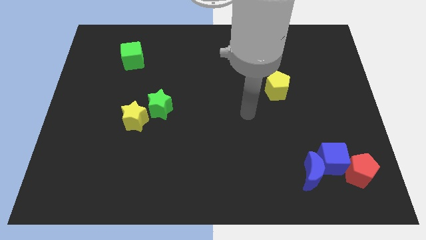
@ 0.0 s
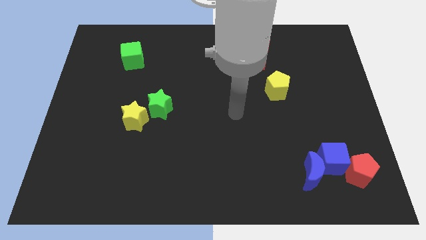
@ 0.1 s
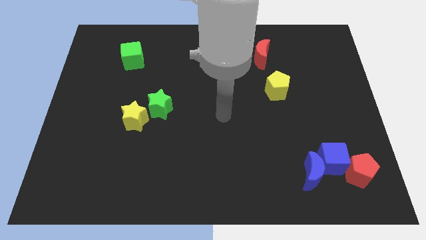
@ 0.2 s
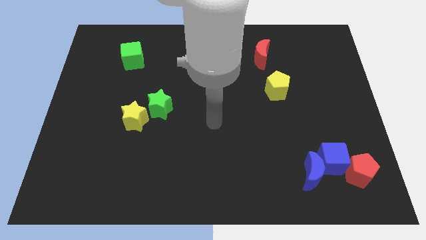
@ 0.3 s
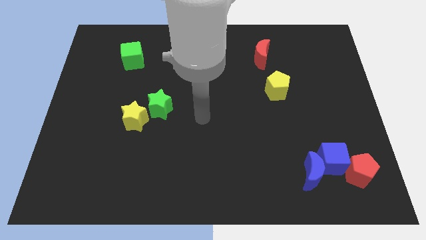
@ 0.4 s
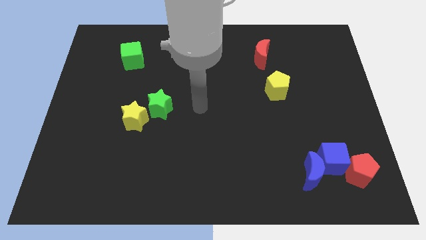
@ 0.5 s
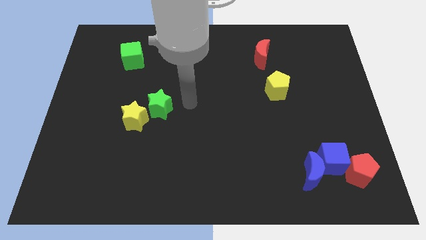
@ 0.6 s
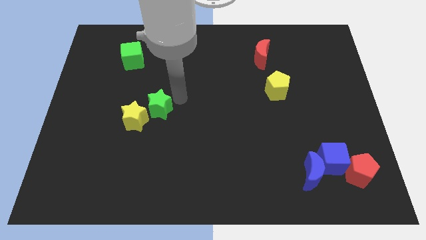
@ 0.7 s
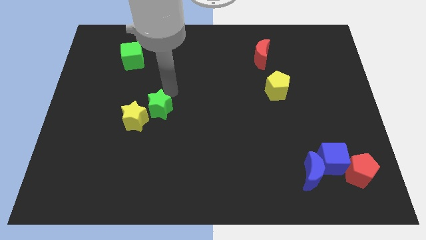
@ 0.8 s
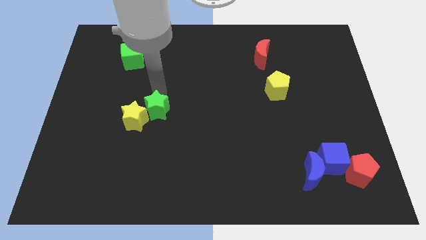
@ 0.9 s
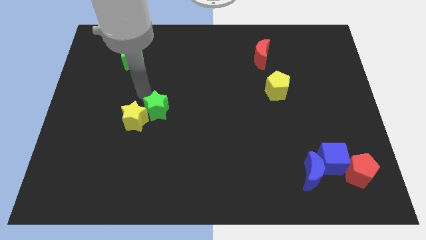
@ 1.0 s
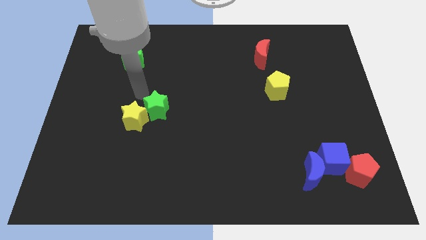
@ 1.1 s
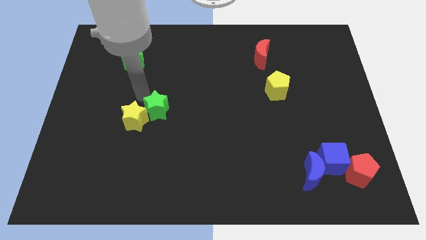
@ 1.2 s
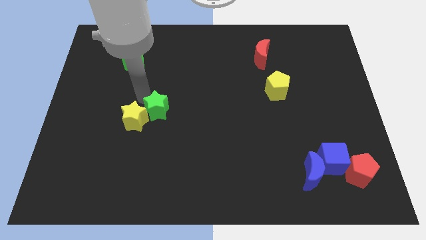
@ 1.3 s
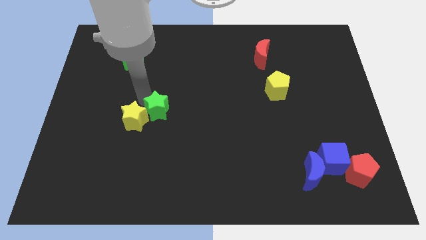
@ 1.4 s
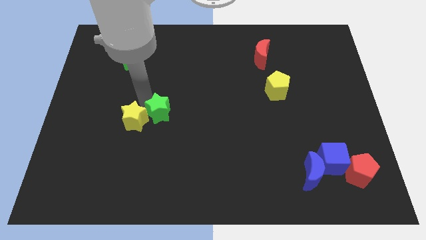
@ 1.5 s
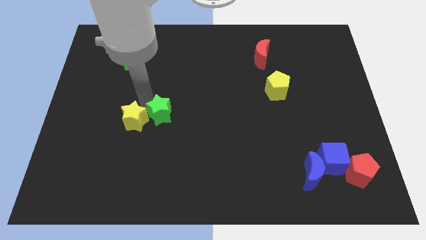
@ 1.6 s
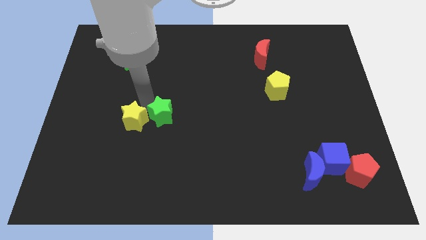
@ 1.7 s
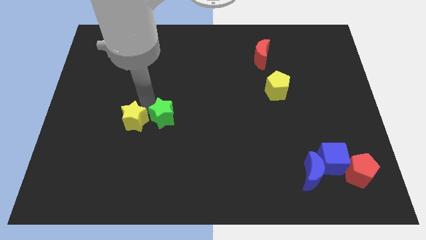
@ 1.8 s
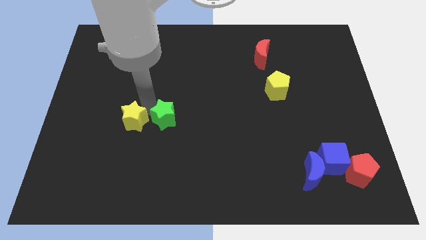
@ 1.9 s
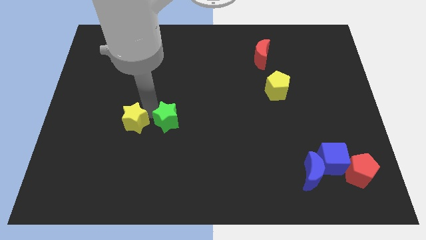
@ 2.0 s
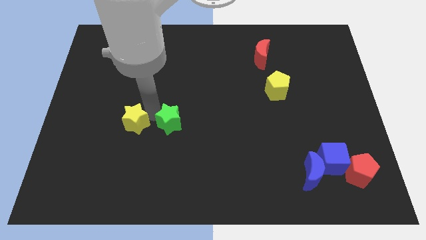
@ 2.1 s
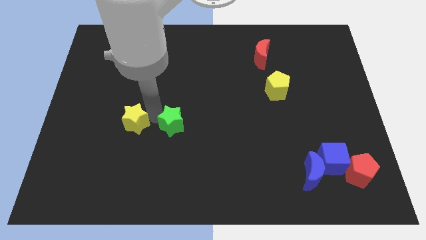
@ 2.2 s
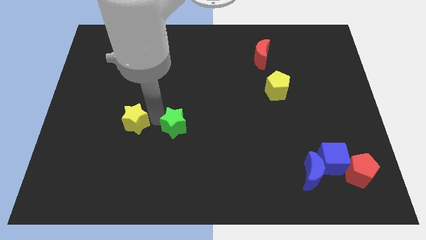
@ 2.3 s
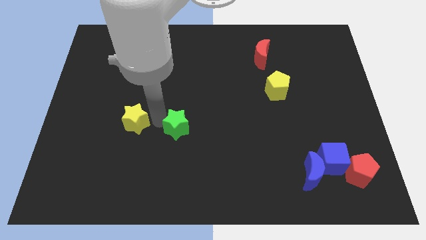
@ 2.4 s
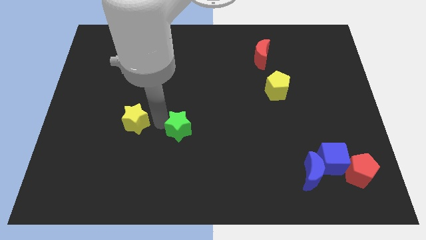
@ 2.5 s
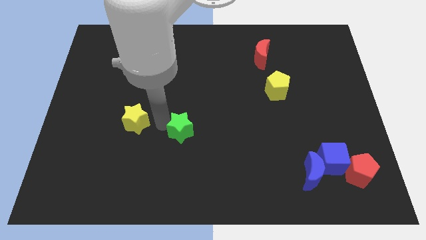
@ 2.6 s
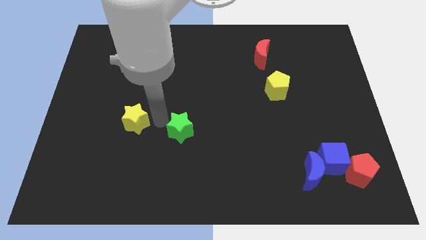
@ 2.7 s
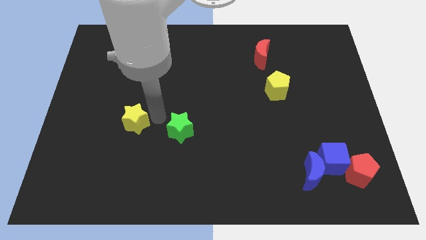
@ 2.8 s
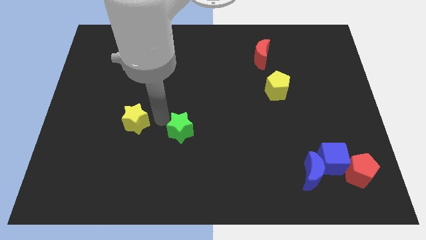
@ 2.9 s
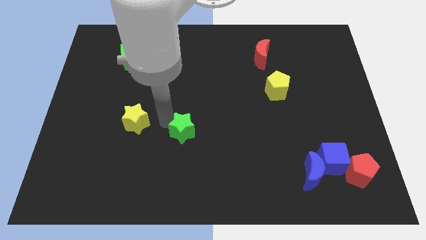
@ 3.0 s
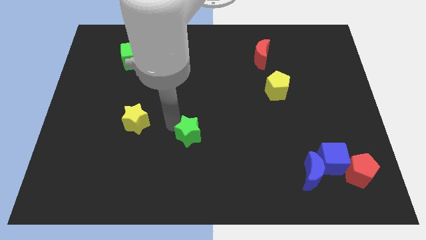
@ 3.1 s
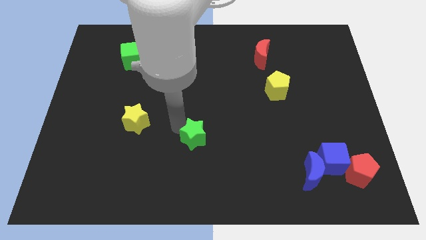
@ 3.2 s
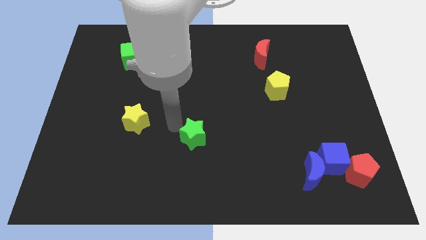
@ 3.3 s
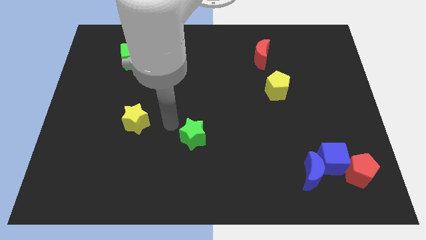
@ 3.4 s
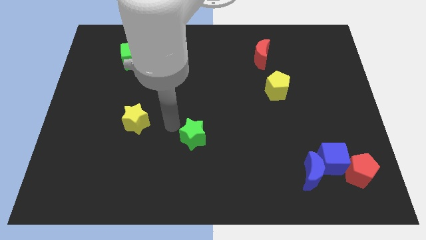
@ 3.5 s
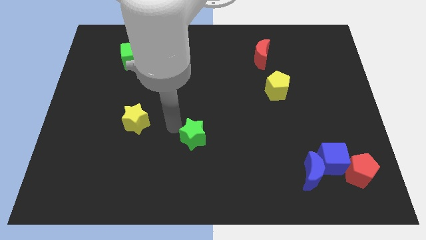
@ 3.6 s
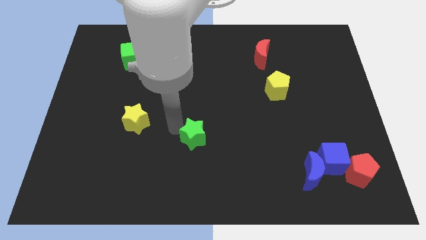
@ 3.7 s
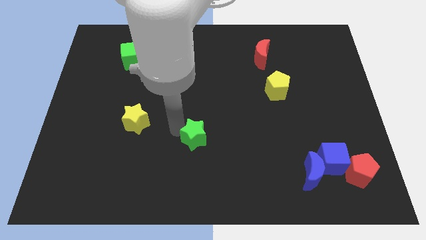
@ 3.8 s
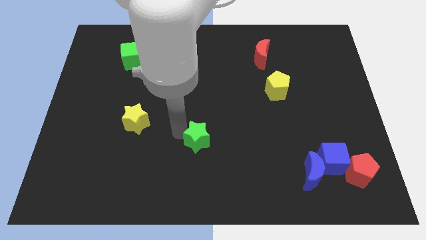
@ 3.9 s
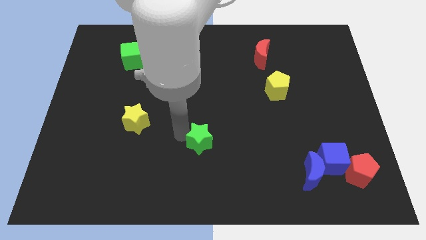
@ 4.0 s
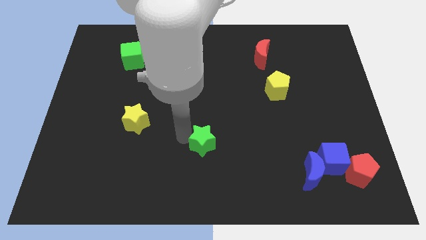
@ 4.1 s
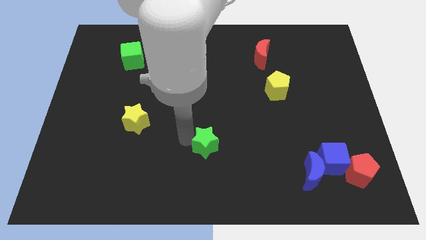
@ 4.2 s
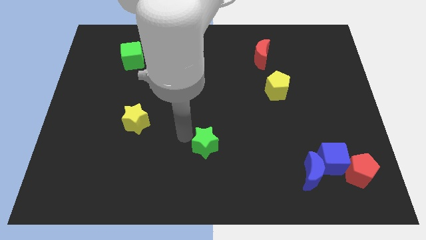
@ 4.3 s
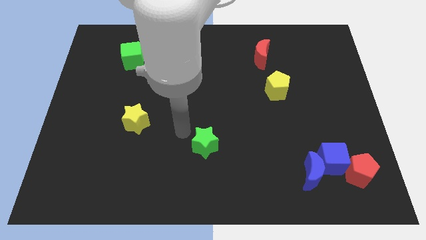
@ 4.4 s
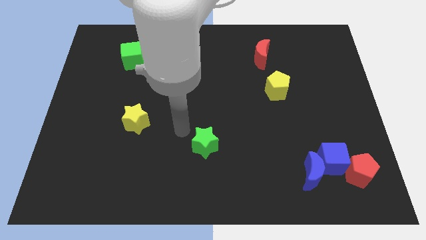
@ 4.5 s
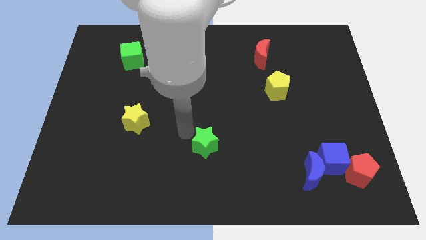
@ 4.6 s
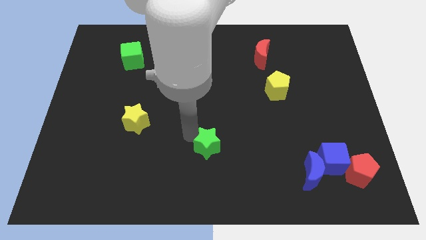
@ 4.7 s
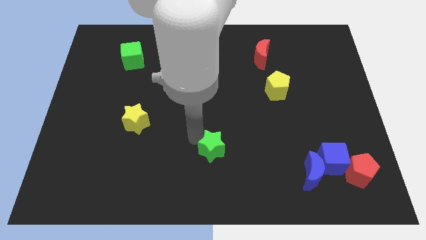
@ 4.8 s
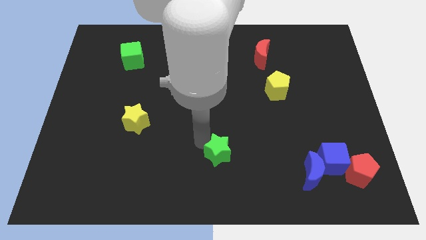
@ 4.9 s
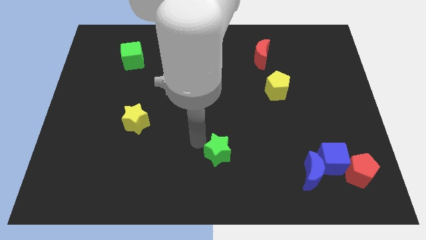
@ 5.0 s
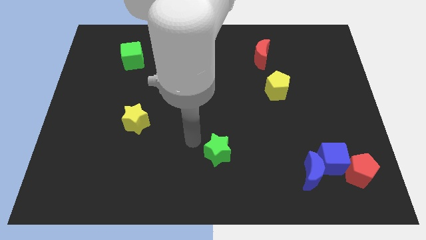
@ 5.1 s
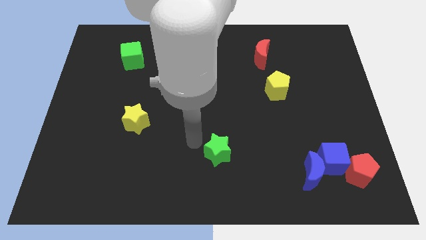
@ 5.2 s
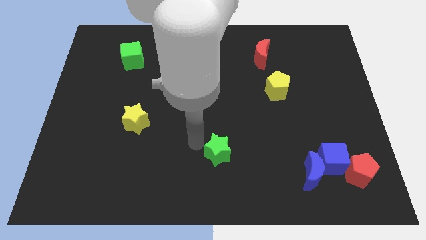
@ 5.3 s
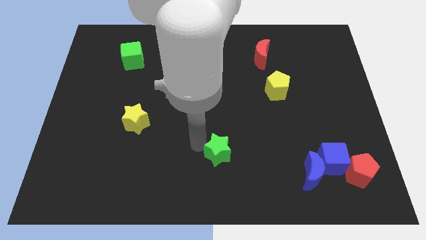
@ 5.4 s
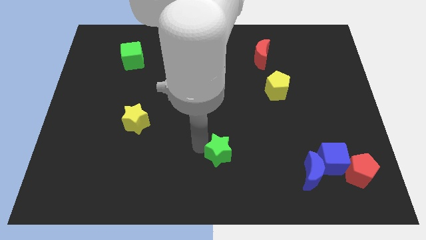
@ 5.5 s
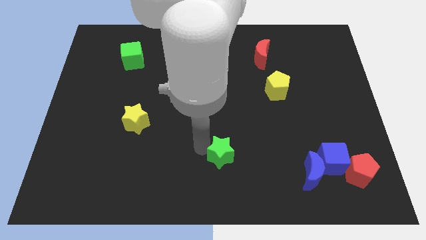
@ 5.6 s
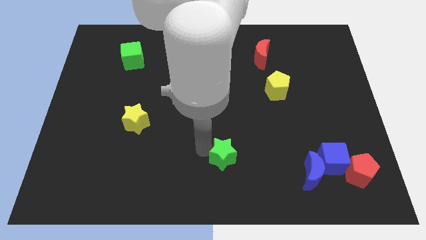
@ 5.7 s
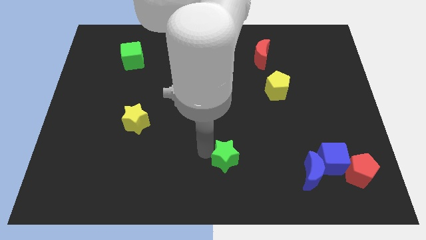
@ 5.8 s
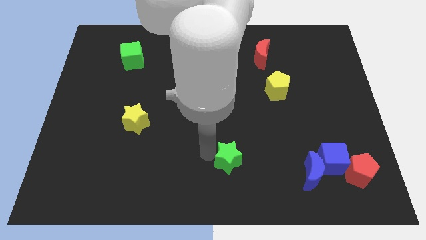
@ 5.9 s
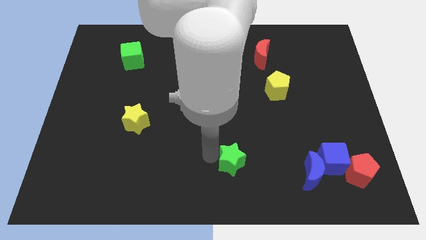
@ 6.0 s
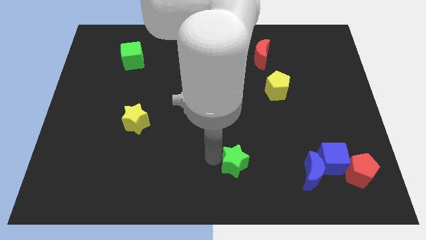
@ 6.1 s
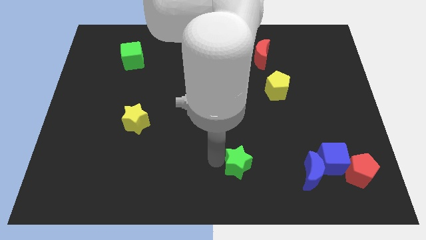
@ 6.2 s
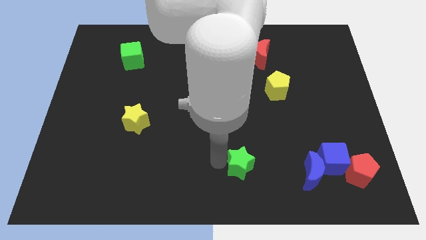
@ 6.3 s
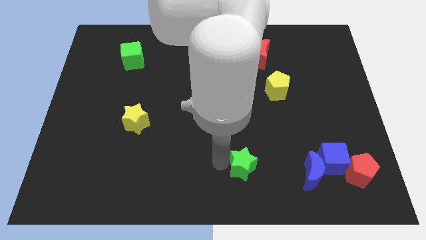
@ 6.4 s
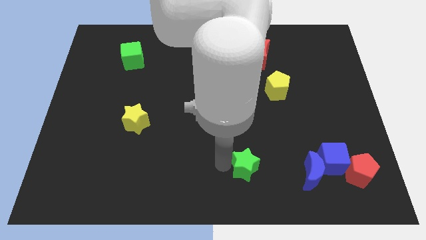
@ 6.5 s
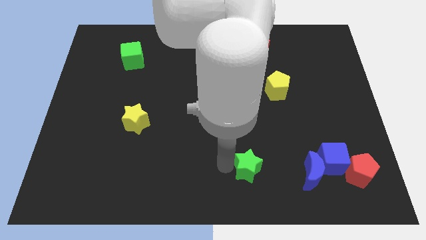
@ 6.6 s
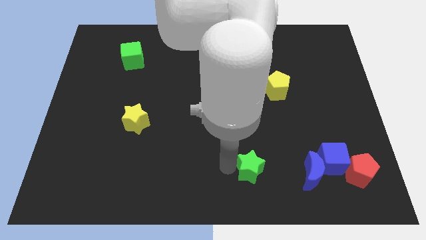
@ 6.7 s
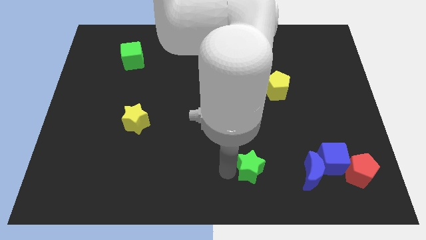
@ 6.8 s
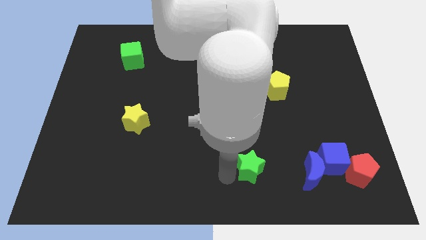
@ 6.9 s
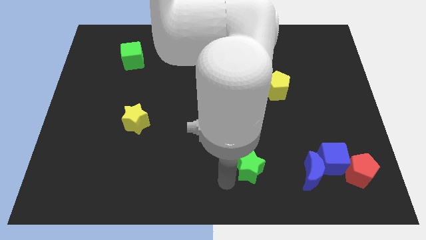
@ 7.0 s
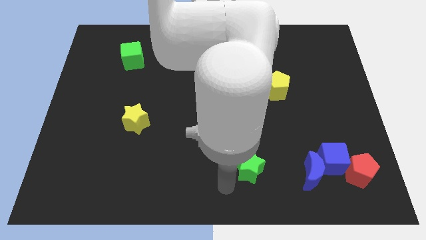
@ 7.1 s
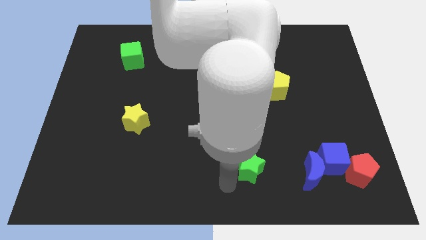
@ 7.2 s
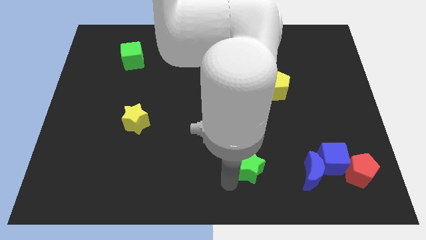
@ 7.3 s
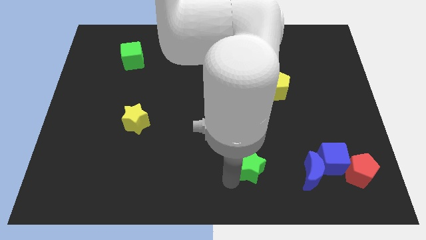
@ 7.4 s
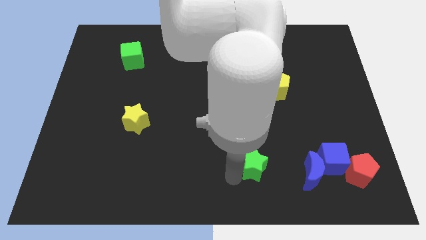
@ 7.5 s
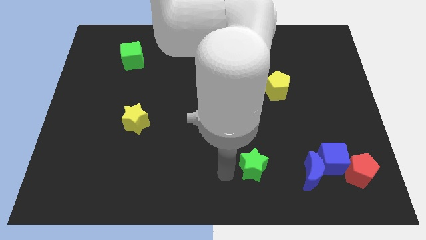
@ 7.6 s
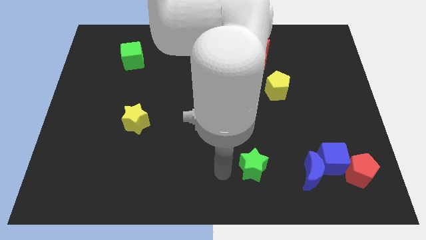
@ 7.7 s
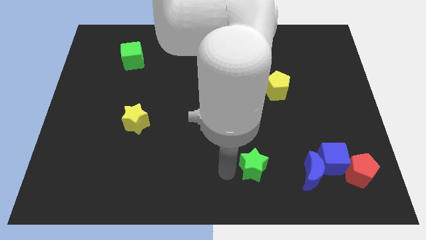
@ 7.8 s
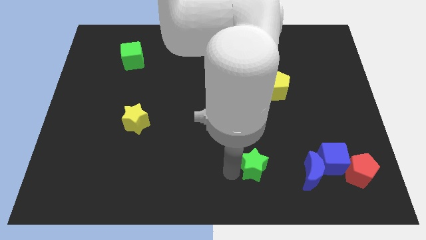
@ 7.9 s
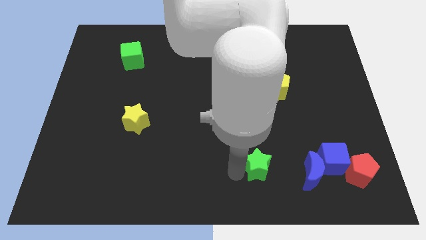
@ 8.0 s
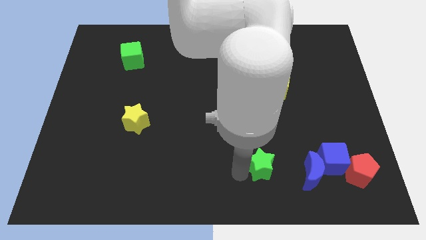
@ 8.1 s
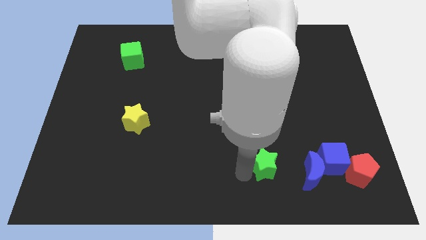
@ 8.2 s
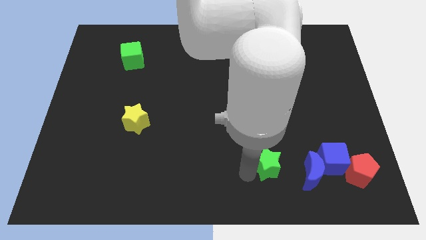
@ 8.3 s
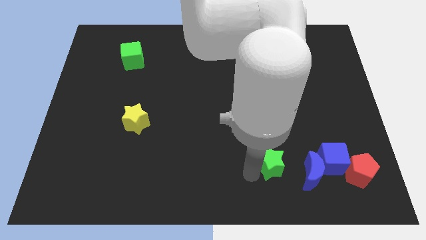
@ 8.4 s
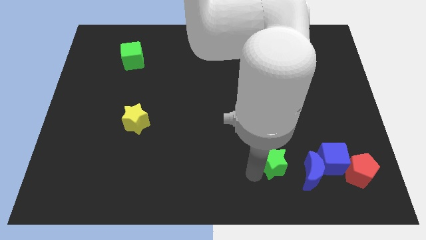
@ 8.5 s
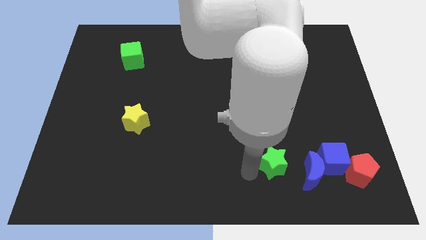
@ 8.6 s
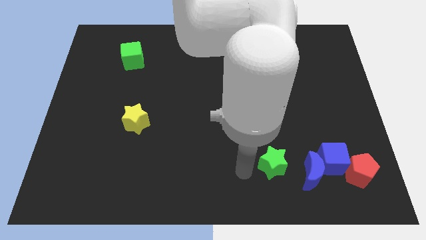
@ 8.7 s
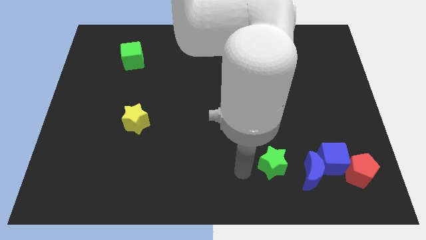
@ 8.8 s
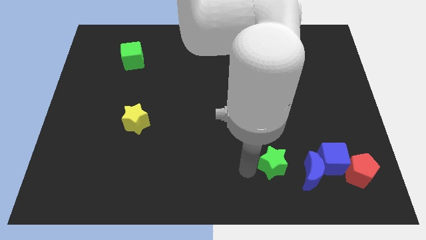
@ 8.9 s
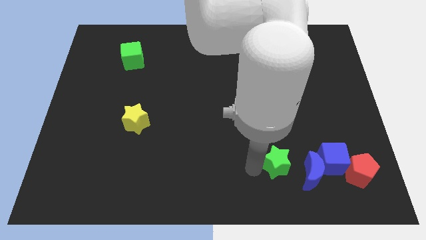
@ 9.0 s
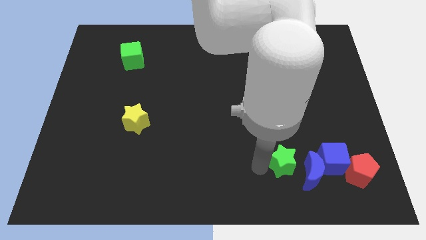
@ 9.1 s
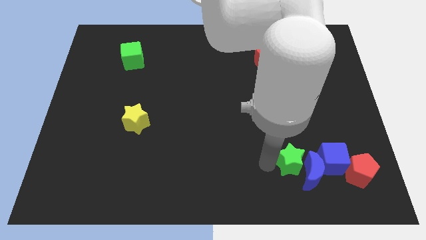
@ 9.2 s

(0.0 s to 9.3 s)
put the green star to the blue moon
